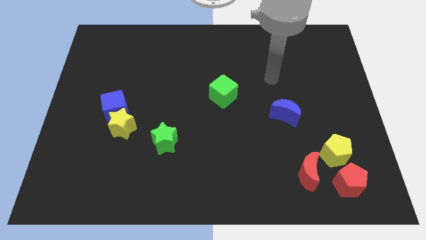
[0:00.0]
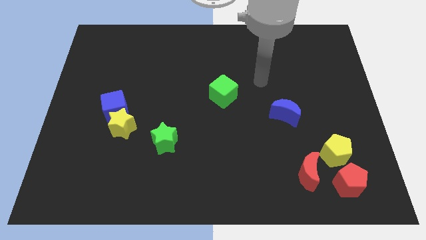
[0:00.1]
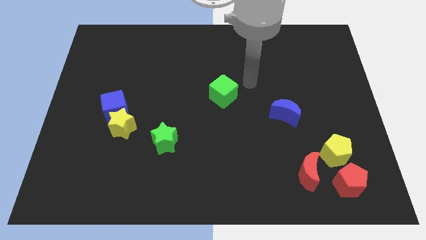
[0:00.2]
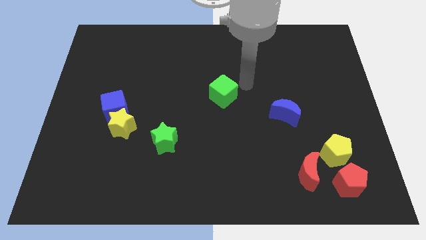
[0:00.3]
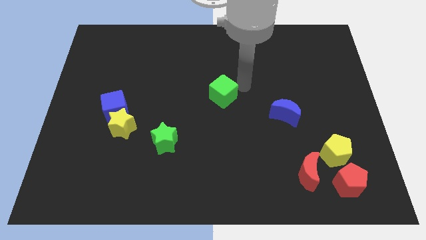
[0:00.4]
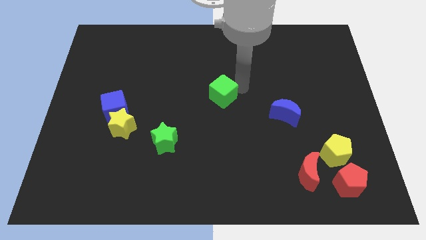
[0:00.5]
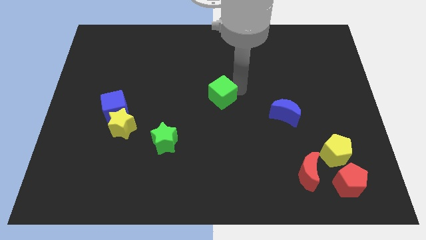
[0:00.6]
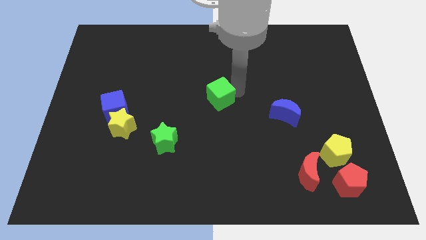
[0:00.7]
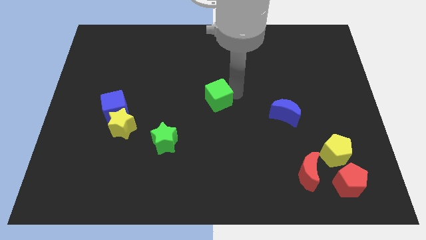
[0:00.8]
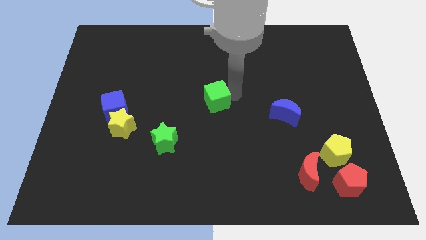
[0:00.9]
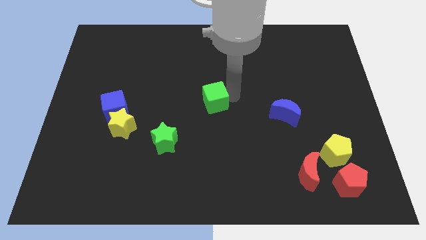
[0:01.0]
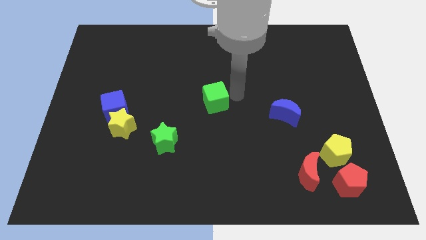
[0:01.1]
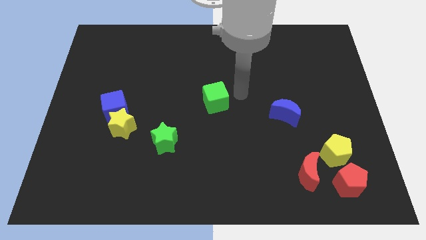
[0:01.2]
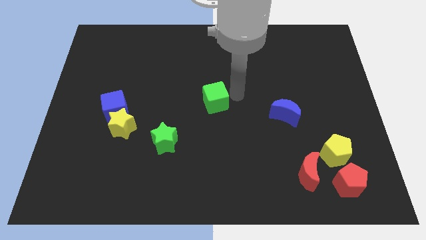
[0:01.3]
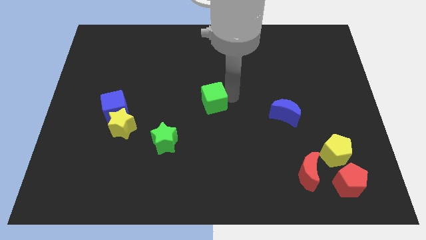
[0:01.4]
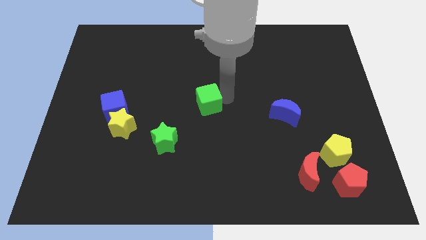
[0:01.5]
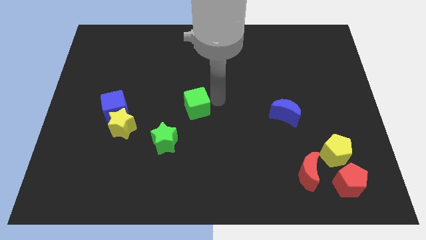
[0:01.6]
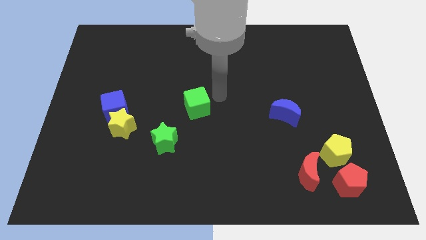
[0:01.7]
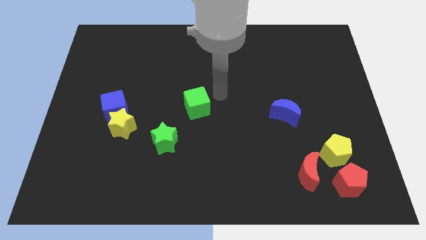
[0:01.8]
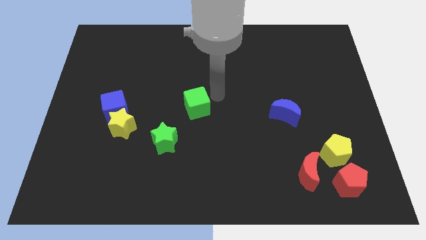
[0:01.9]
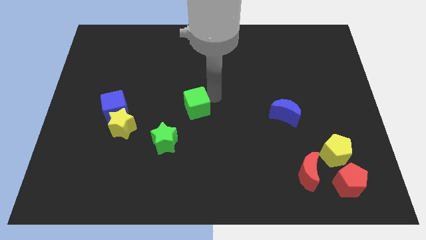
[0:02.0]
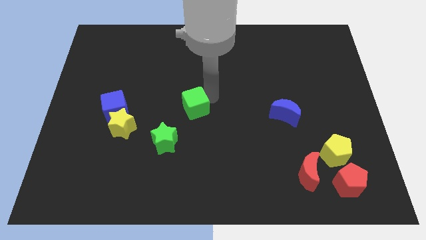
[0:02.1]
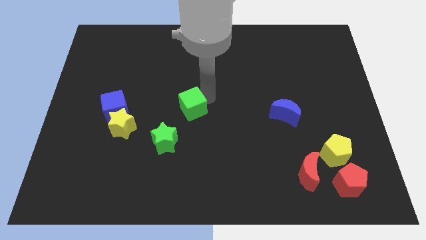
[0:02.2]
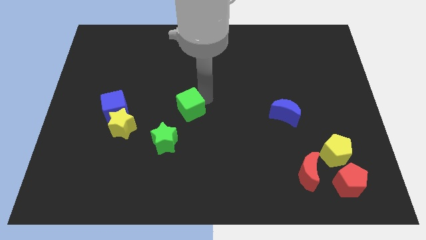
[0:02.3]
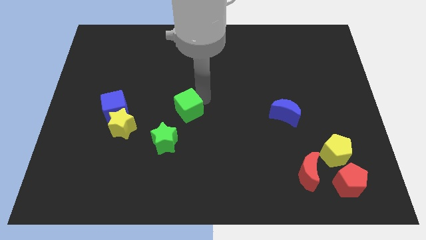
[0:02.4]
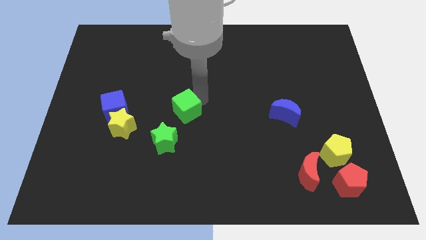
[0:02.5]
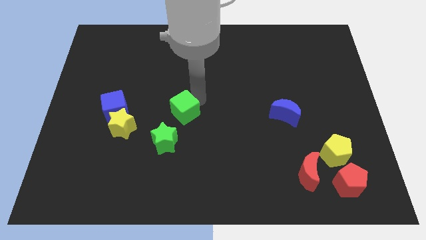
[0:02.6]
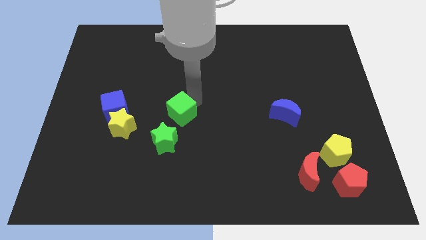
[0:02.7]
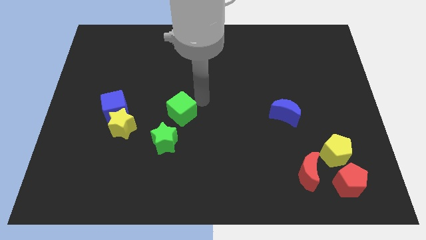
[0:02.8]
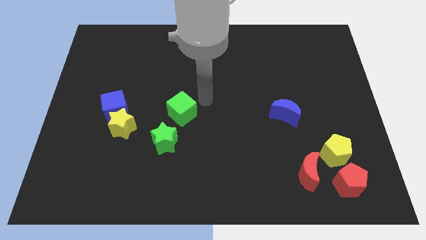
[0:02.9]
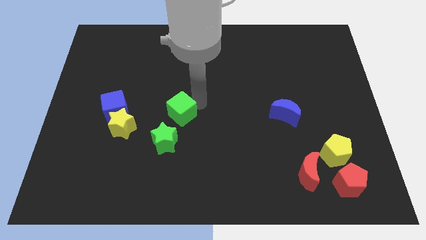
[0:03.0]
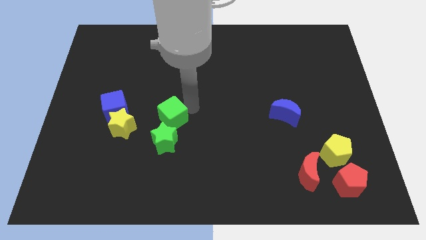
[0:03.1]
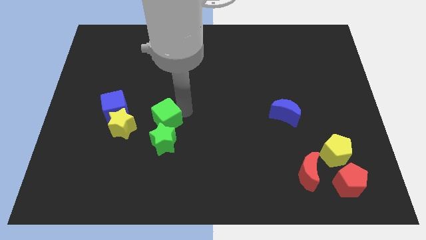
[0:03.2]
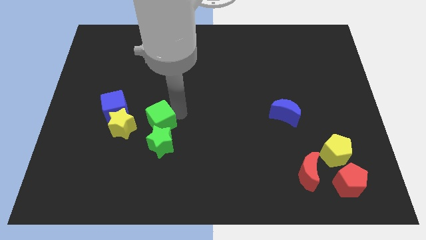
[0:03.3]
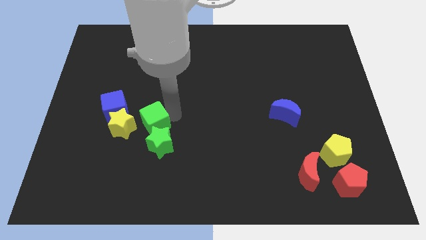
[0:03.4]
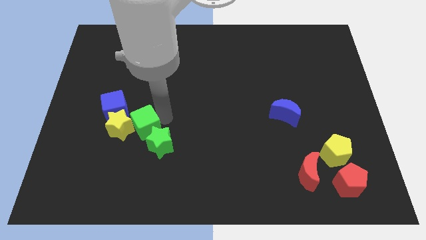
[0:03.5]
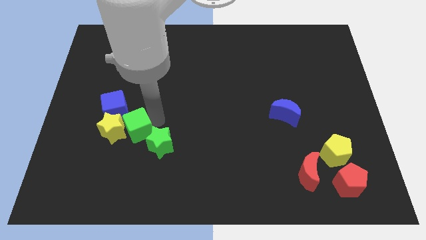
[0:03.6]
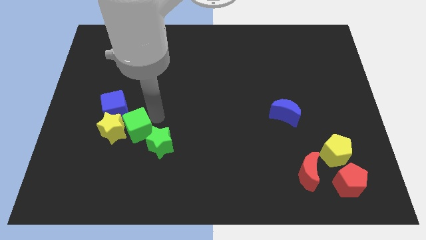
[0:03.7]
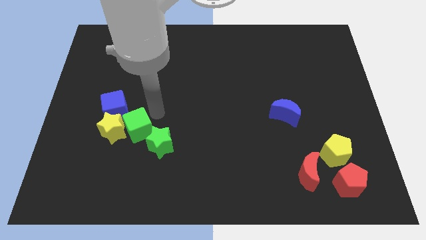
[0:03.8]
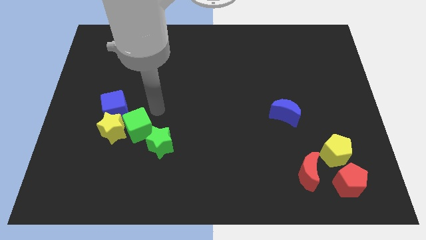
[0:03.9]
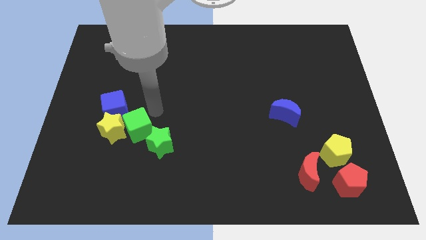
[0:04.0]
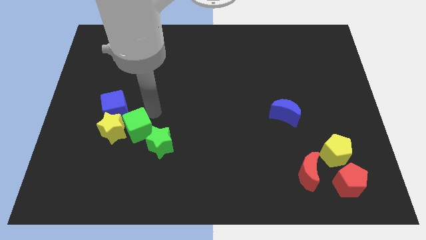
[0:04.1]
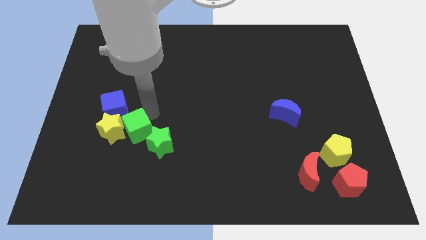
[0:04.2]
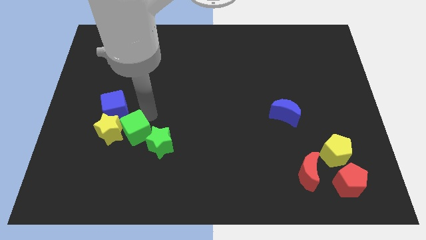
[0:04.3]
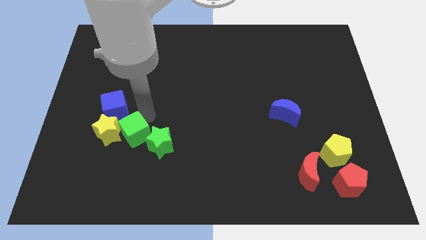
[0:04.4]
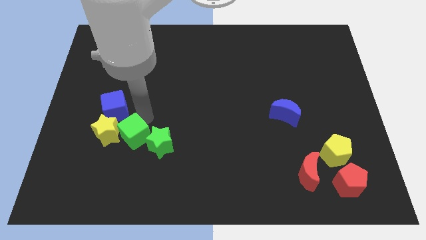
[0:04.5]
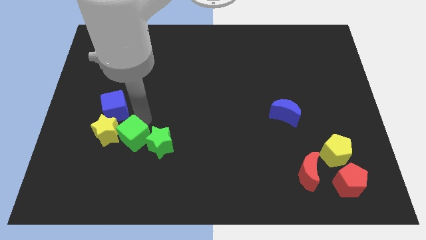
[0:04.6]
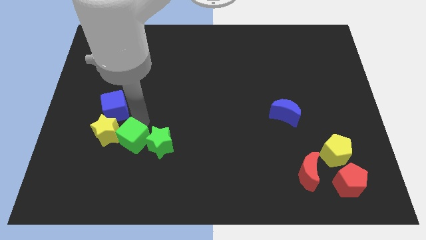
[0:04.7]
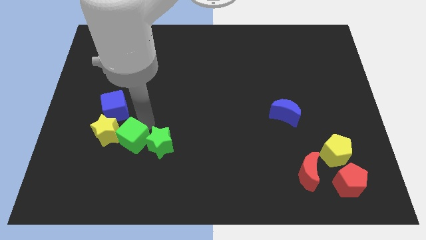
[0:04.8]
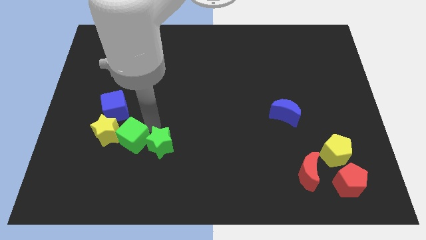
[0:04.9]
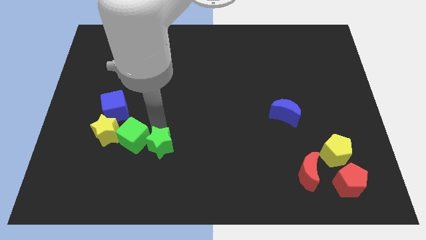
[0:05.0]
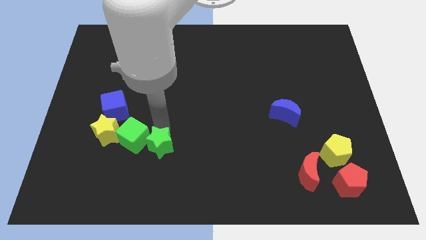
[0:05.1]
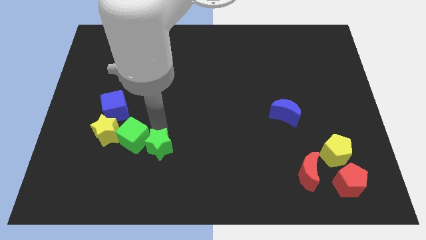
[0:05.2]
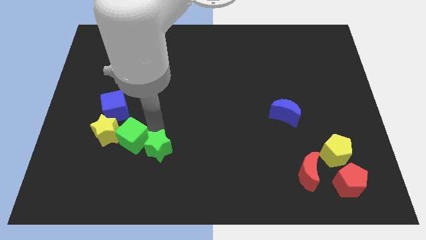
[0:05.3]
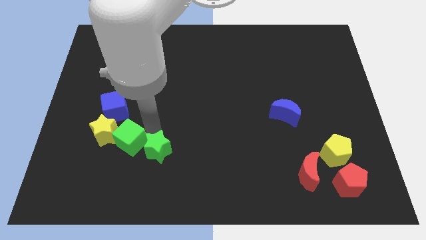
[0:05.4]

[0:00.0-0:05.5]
push the green cube below the blue cube
